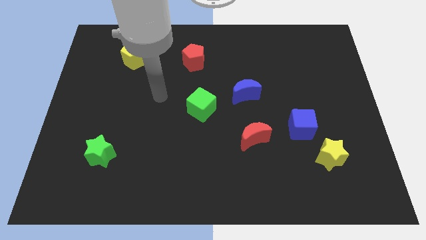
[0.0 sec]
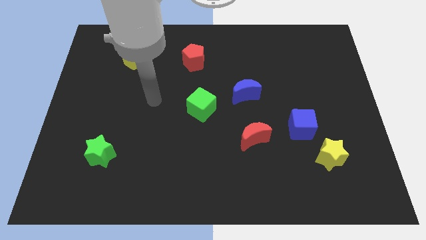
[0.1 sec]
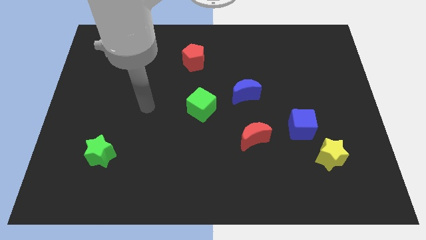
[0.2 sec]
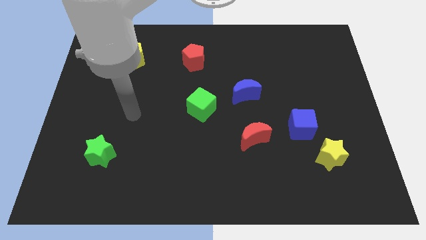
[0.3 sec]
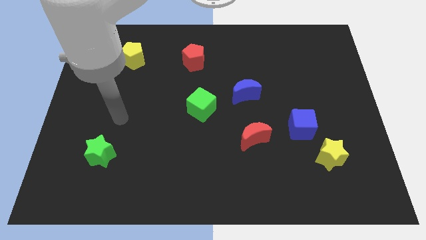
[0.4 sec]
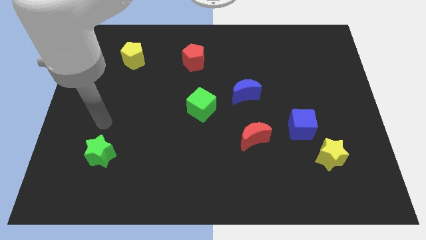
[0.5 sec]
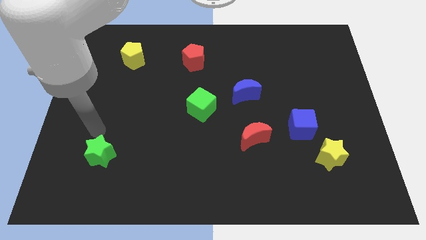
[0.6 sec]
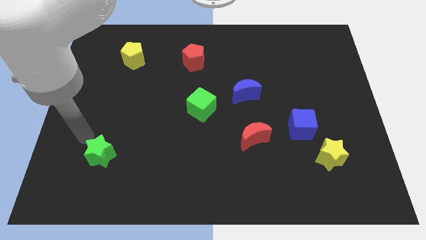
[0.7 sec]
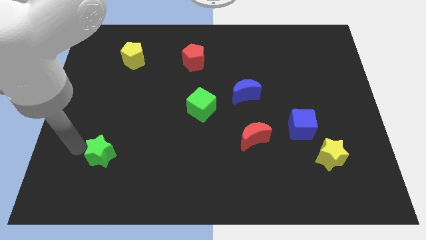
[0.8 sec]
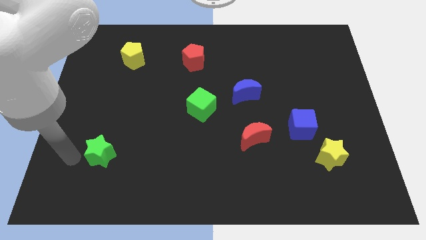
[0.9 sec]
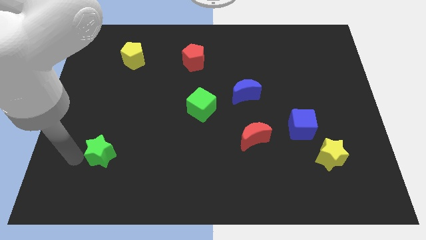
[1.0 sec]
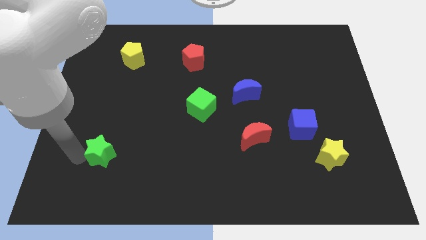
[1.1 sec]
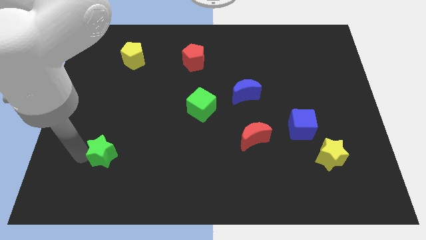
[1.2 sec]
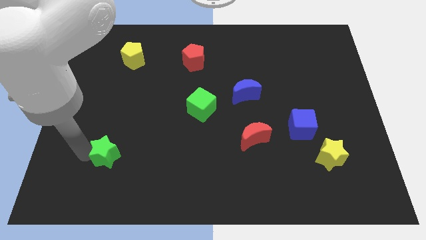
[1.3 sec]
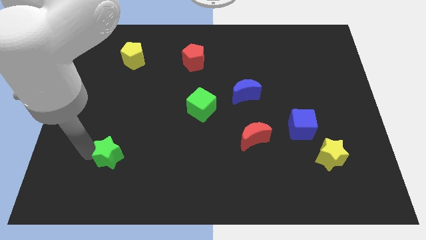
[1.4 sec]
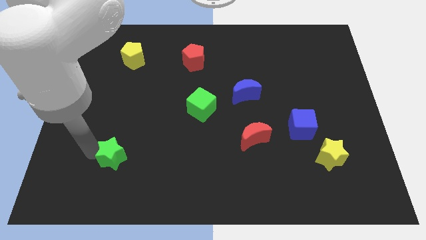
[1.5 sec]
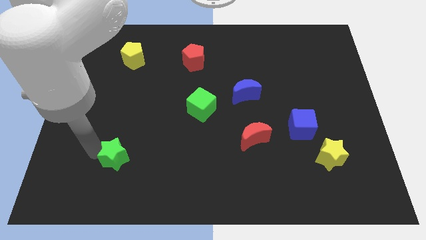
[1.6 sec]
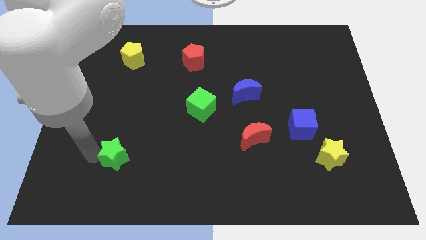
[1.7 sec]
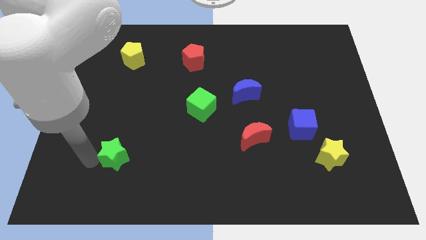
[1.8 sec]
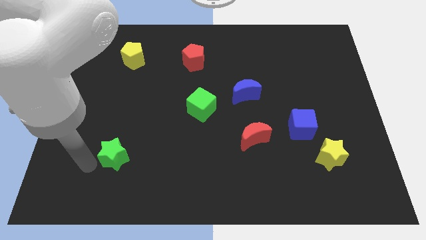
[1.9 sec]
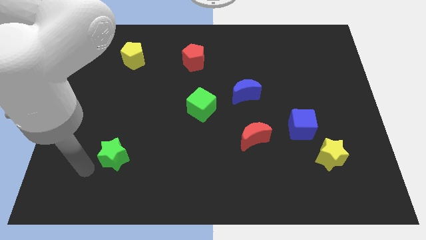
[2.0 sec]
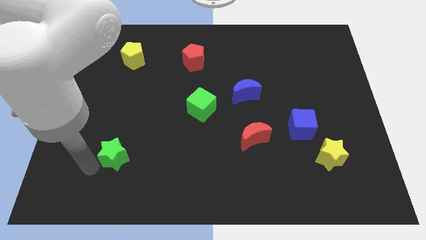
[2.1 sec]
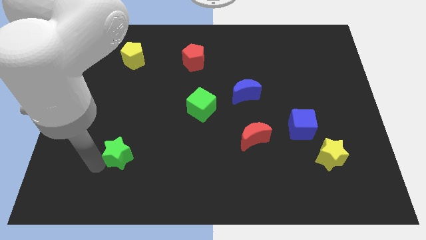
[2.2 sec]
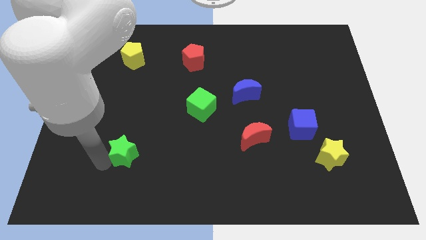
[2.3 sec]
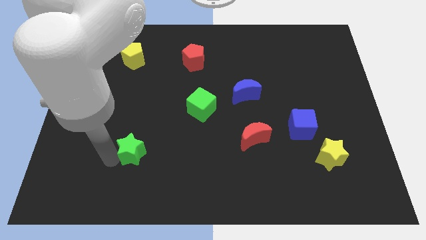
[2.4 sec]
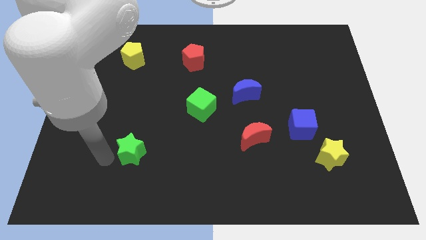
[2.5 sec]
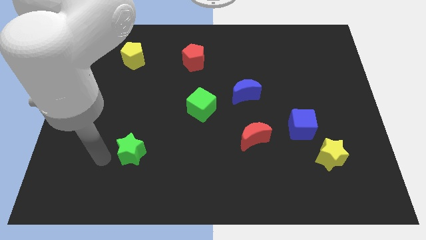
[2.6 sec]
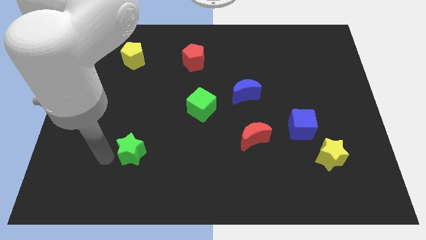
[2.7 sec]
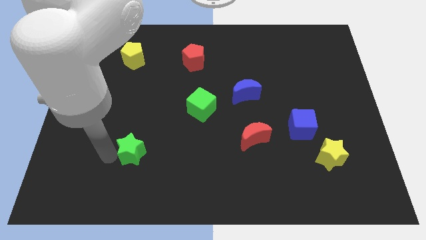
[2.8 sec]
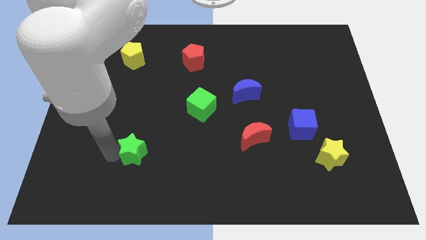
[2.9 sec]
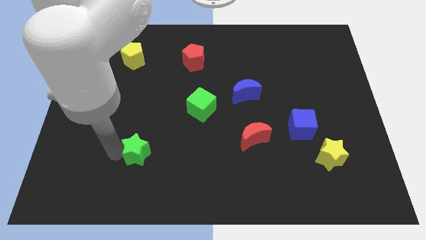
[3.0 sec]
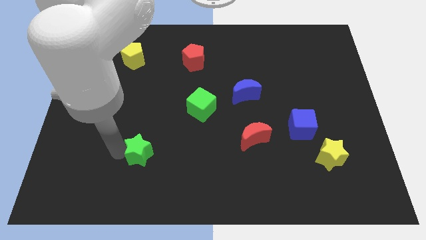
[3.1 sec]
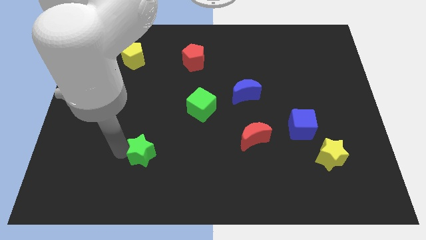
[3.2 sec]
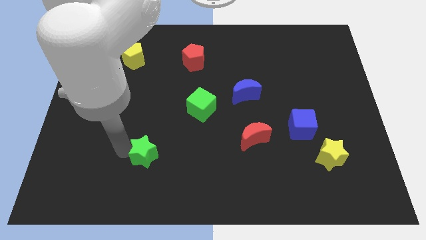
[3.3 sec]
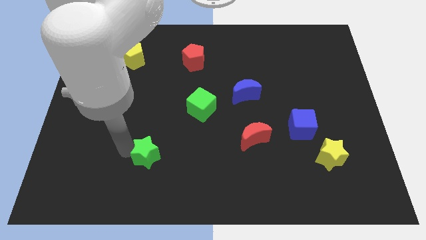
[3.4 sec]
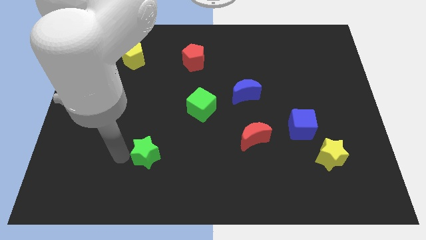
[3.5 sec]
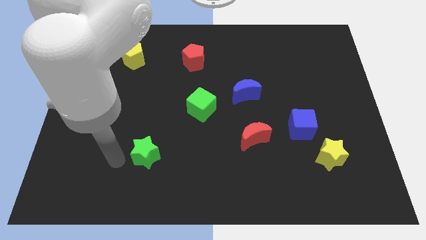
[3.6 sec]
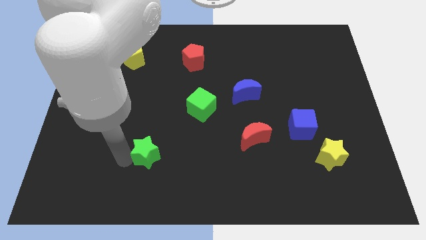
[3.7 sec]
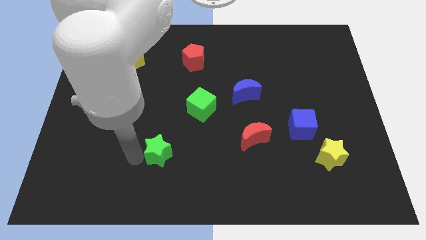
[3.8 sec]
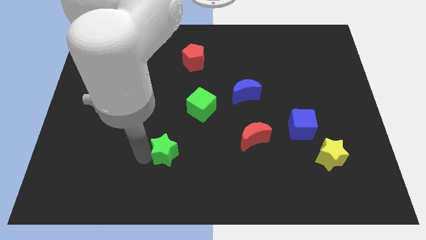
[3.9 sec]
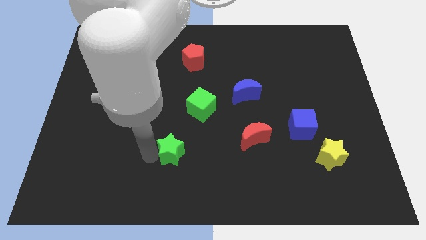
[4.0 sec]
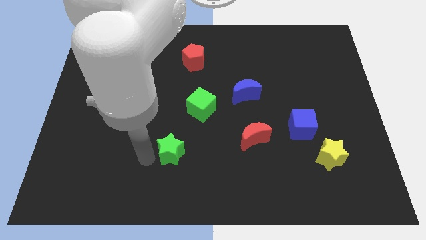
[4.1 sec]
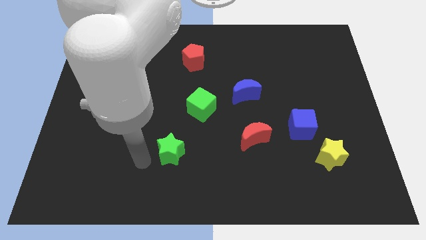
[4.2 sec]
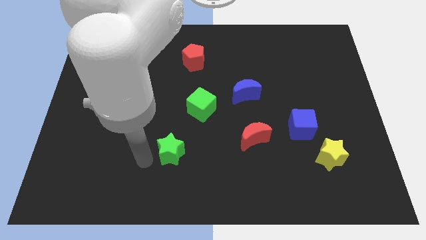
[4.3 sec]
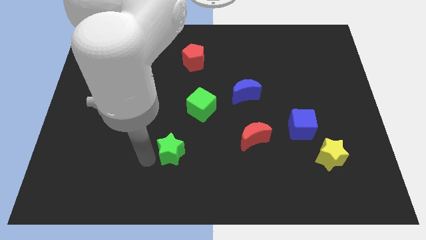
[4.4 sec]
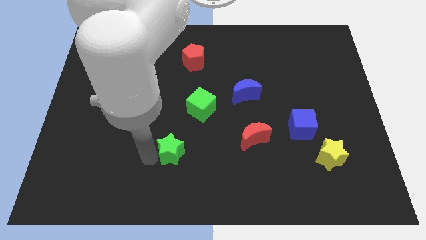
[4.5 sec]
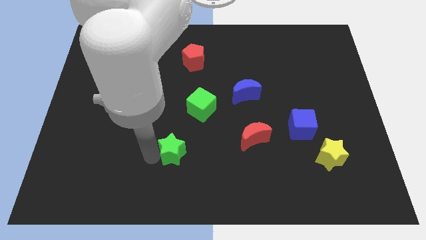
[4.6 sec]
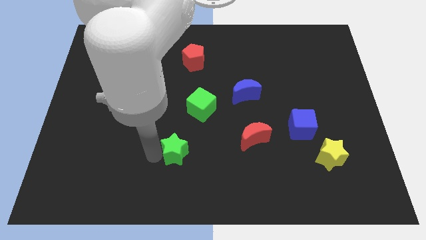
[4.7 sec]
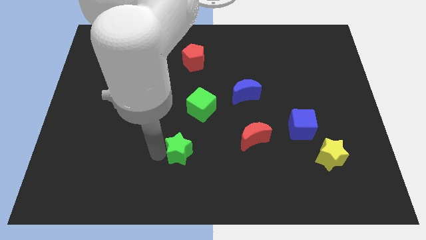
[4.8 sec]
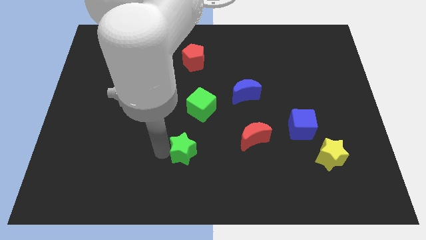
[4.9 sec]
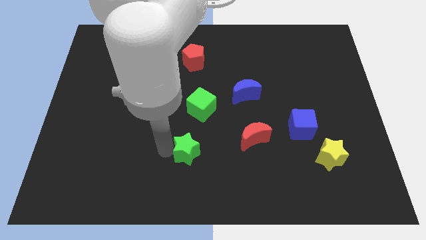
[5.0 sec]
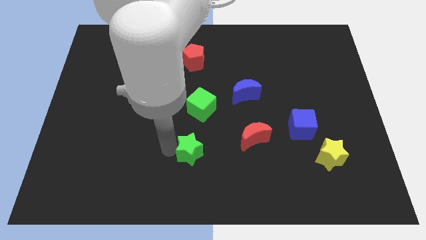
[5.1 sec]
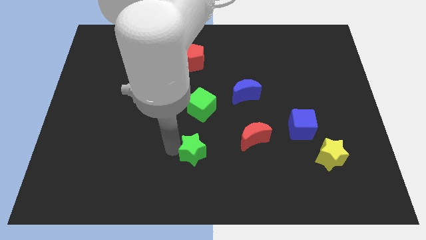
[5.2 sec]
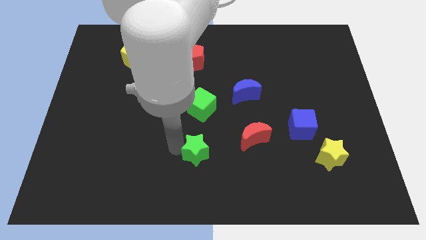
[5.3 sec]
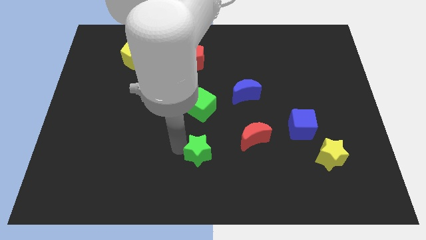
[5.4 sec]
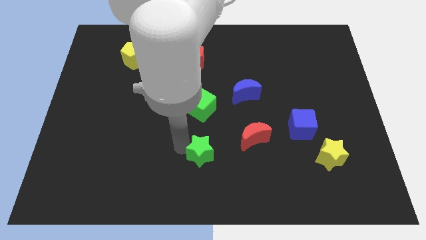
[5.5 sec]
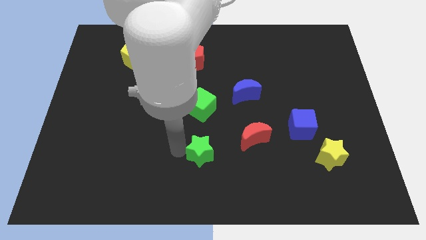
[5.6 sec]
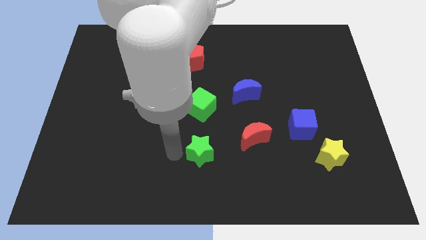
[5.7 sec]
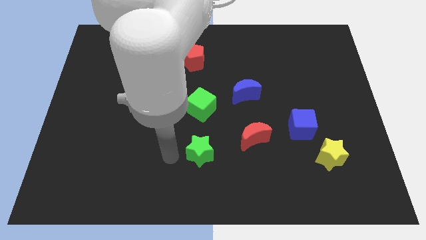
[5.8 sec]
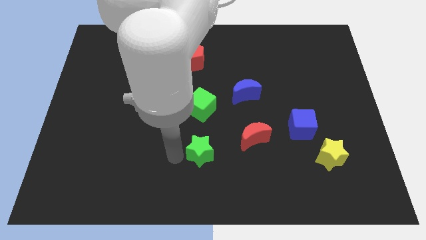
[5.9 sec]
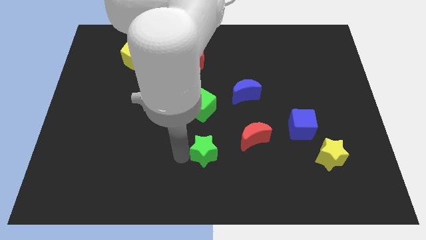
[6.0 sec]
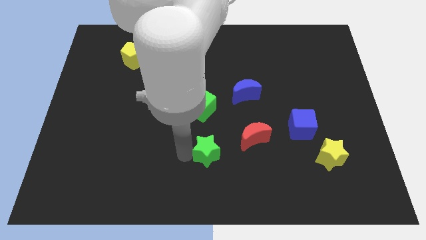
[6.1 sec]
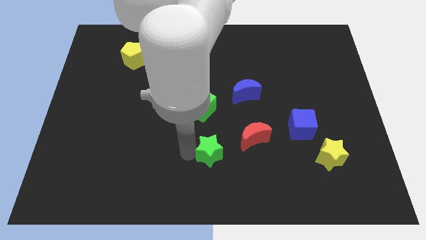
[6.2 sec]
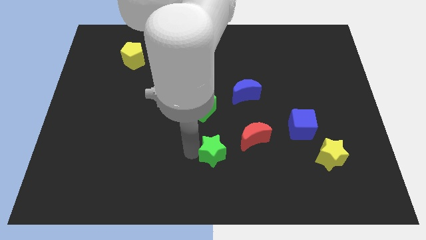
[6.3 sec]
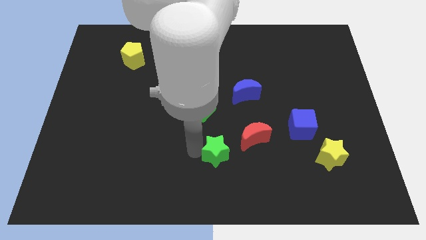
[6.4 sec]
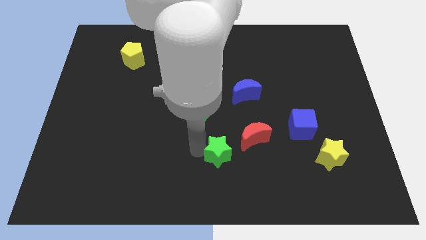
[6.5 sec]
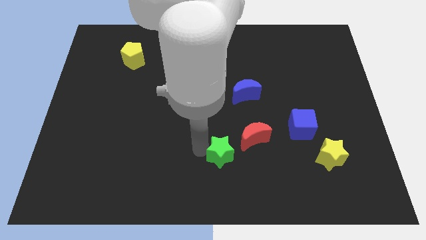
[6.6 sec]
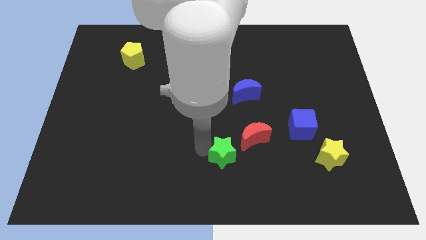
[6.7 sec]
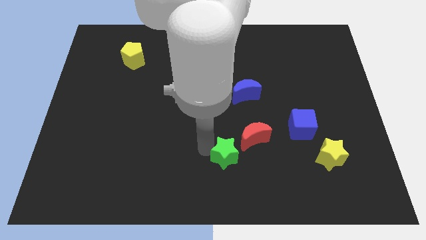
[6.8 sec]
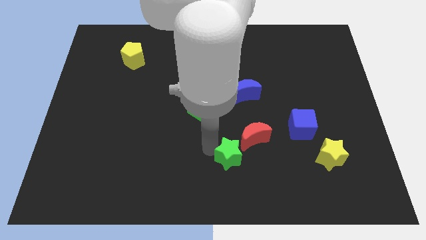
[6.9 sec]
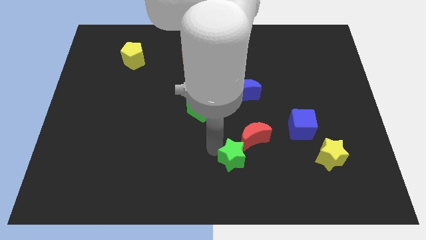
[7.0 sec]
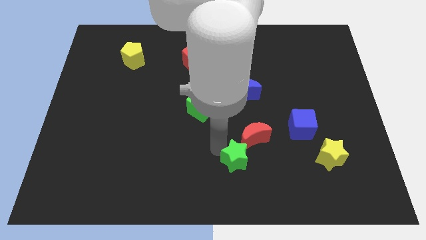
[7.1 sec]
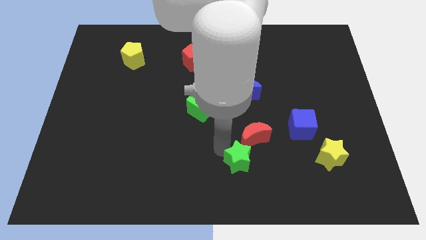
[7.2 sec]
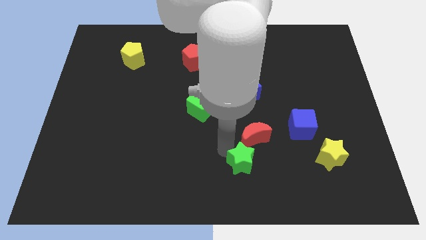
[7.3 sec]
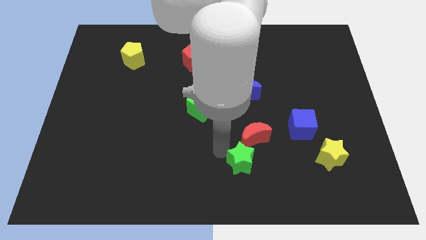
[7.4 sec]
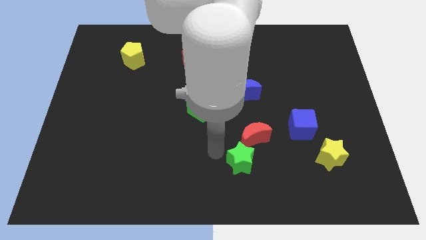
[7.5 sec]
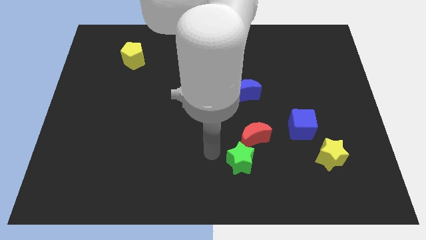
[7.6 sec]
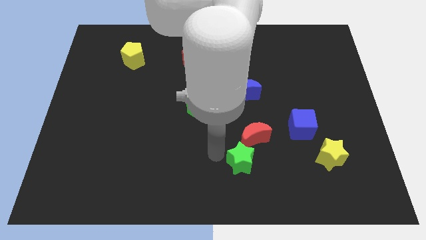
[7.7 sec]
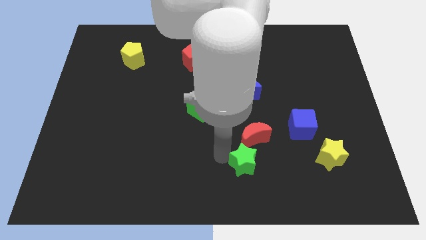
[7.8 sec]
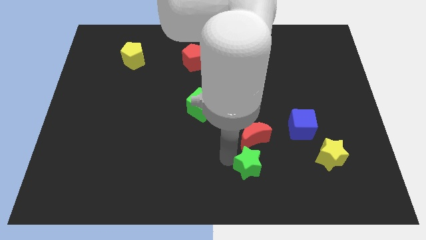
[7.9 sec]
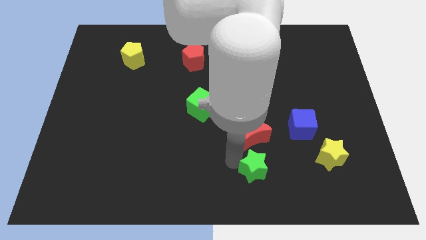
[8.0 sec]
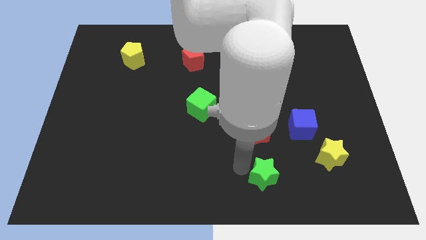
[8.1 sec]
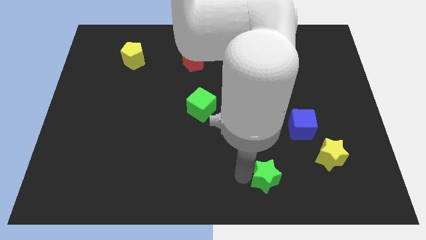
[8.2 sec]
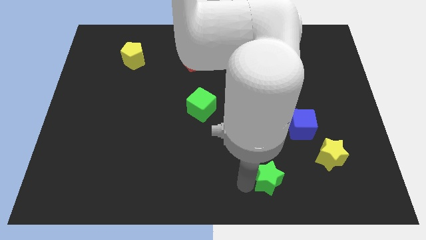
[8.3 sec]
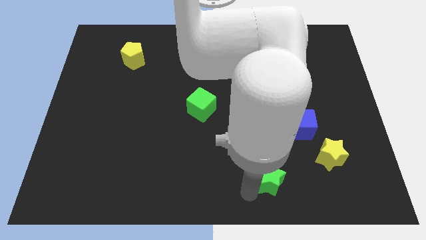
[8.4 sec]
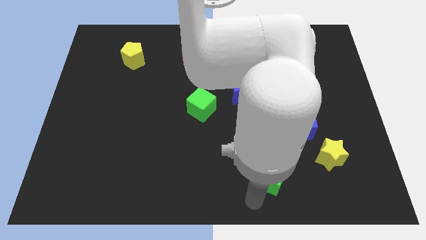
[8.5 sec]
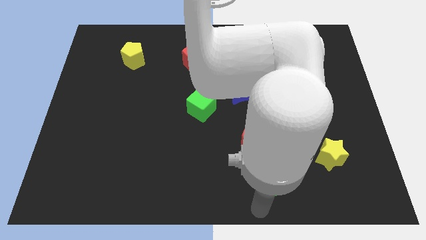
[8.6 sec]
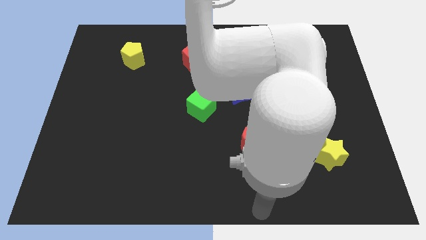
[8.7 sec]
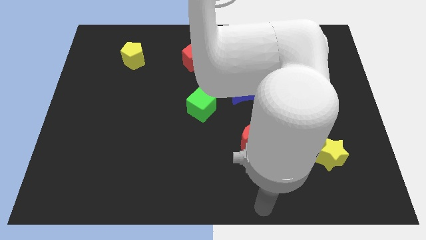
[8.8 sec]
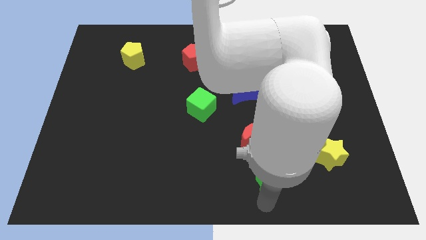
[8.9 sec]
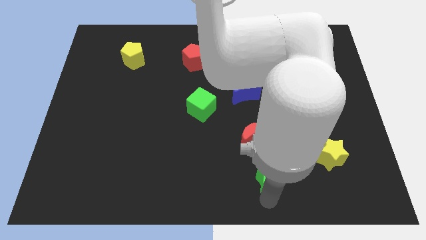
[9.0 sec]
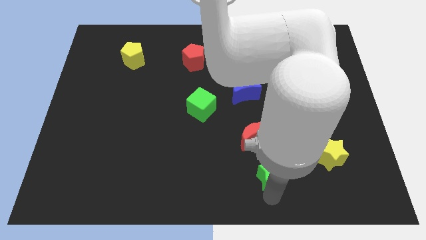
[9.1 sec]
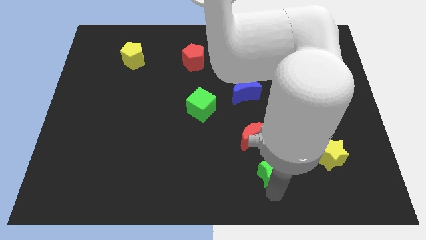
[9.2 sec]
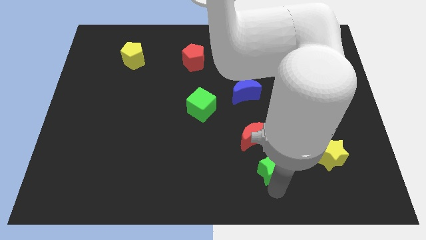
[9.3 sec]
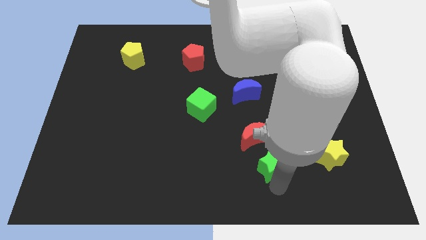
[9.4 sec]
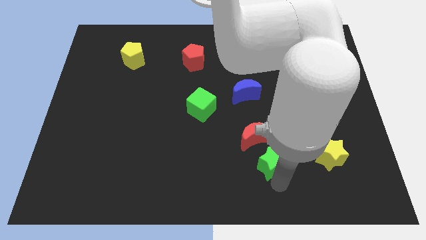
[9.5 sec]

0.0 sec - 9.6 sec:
slide the green star diagonally down and to the left of the blue cube
